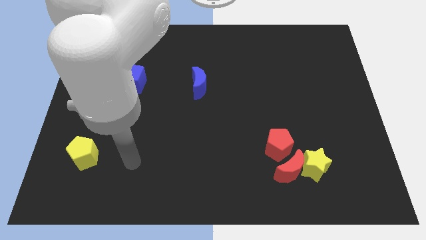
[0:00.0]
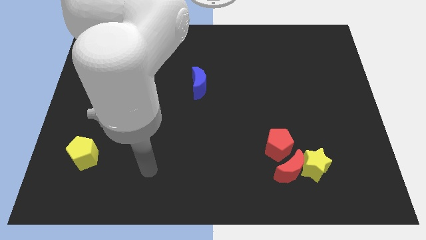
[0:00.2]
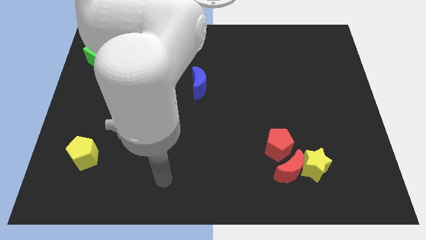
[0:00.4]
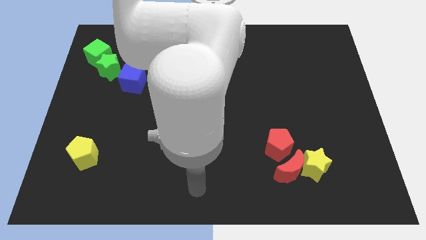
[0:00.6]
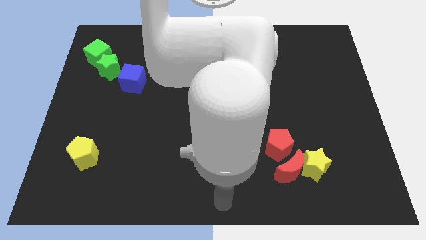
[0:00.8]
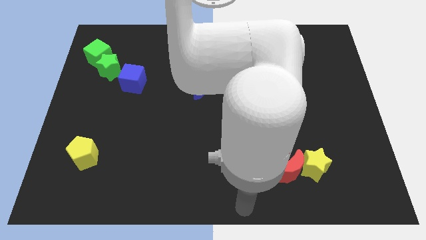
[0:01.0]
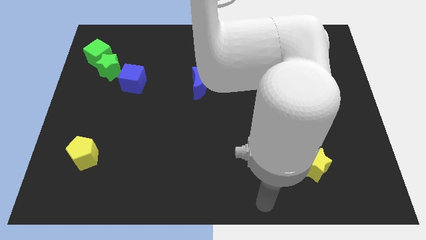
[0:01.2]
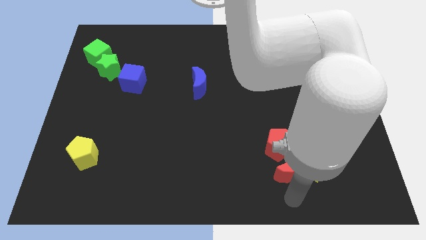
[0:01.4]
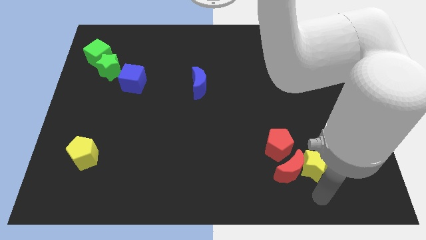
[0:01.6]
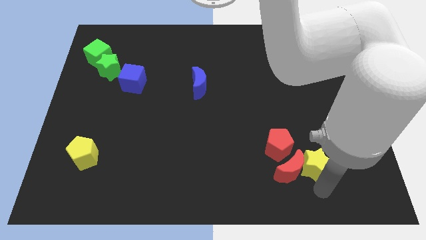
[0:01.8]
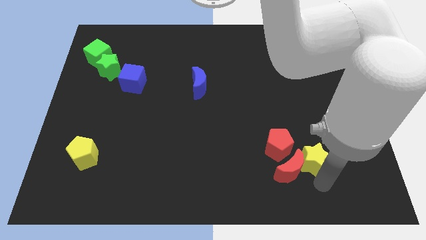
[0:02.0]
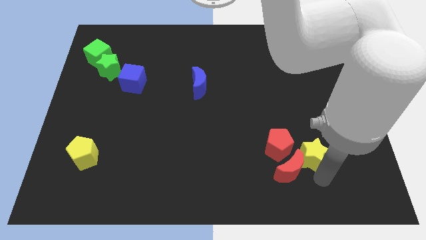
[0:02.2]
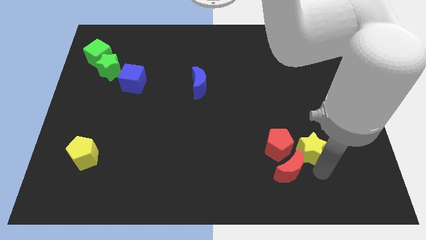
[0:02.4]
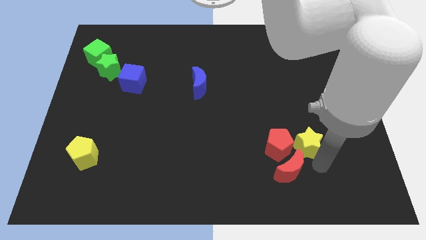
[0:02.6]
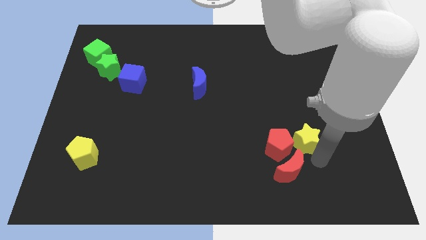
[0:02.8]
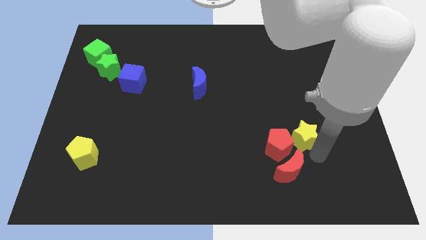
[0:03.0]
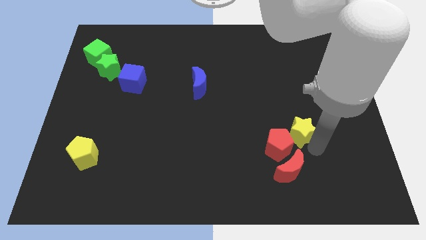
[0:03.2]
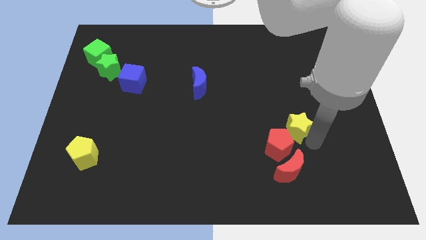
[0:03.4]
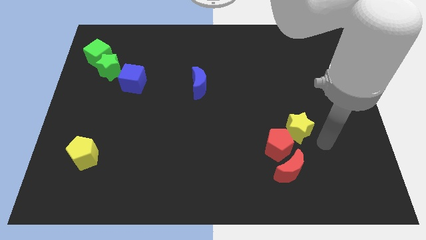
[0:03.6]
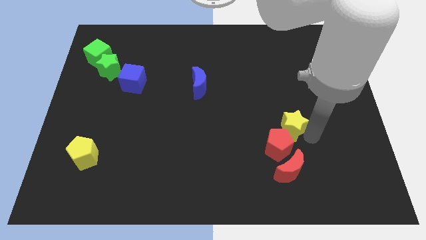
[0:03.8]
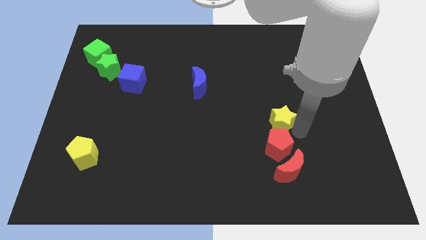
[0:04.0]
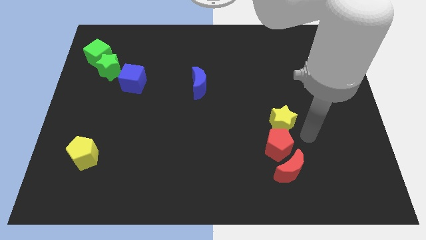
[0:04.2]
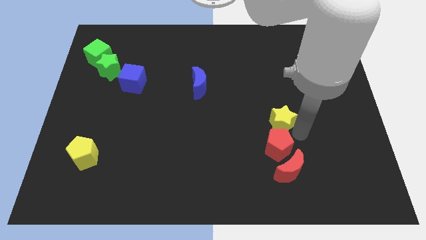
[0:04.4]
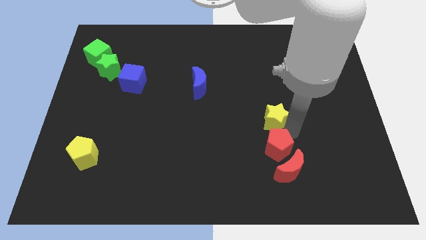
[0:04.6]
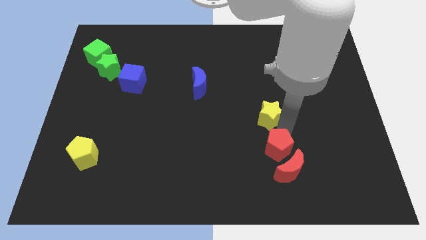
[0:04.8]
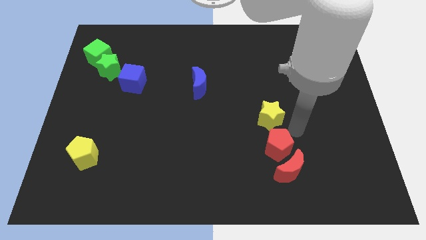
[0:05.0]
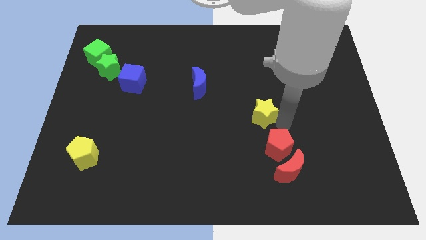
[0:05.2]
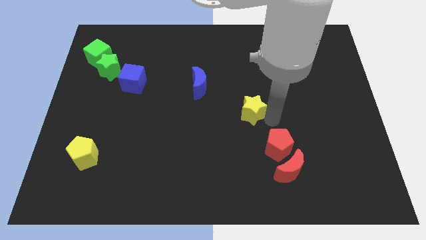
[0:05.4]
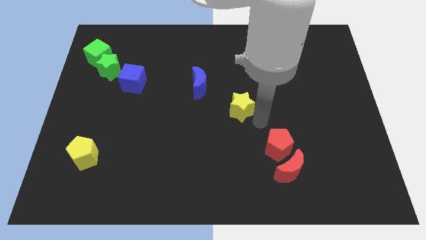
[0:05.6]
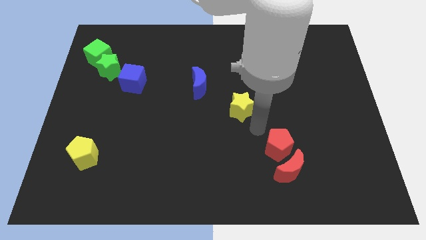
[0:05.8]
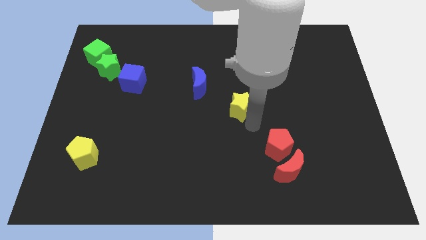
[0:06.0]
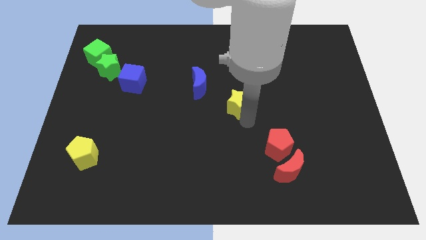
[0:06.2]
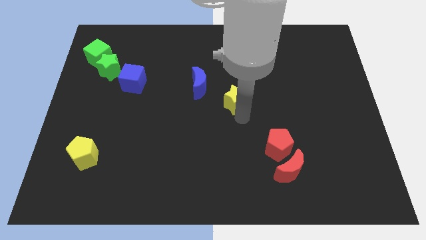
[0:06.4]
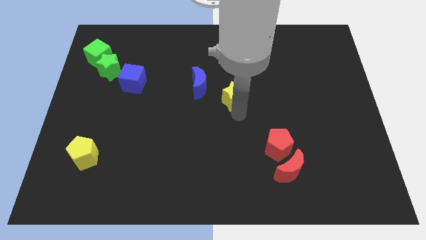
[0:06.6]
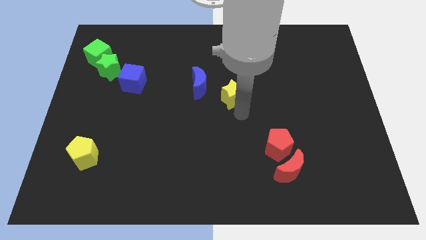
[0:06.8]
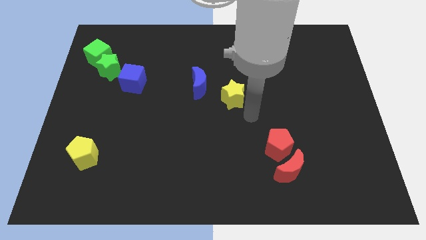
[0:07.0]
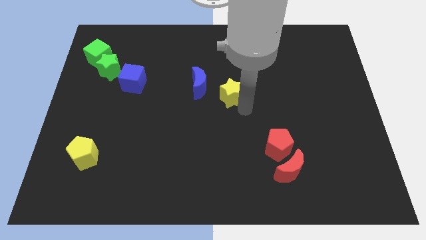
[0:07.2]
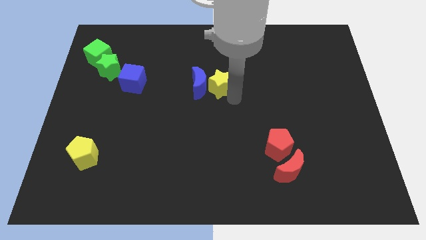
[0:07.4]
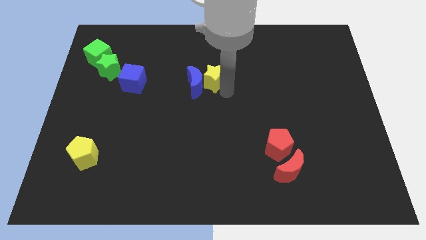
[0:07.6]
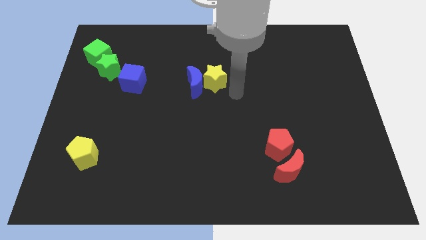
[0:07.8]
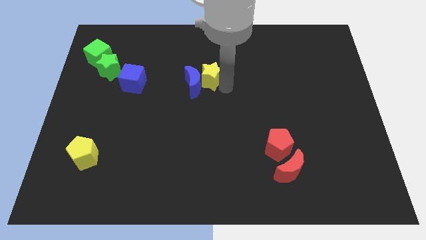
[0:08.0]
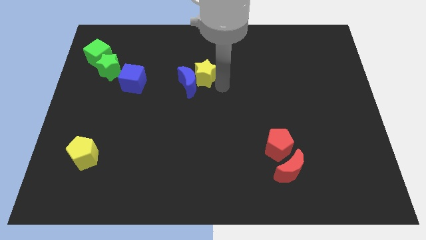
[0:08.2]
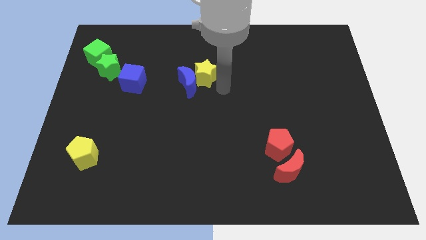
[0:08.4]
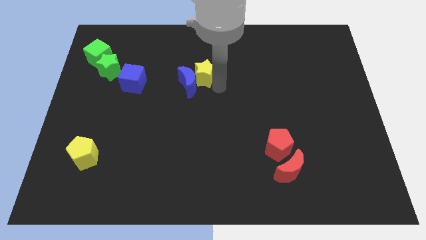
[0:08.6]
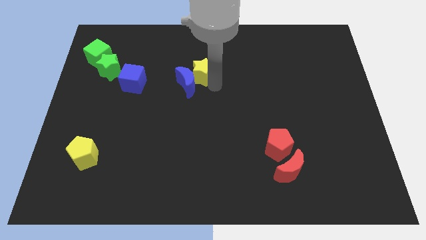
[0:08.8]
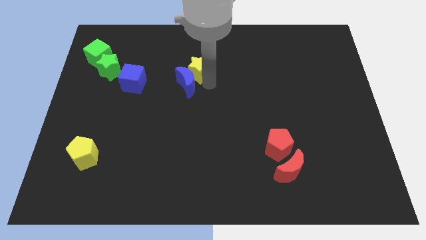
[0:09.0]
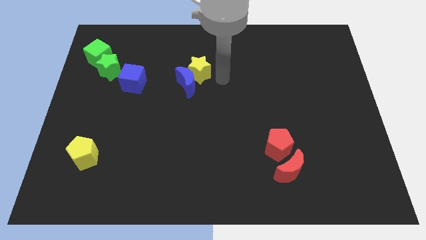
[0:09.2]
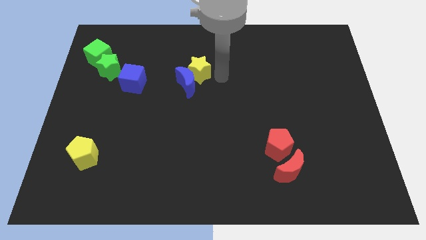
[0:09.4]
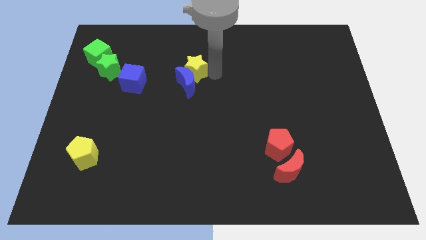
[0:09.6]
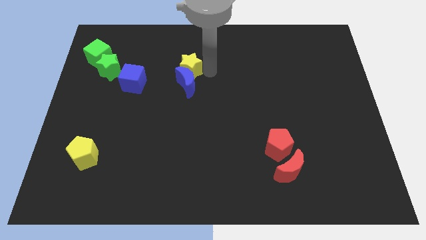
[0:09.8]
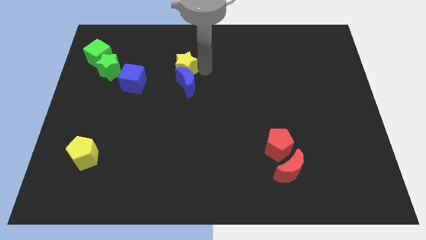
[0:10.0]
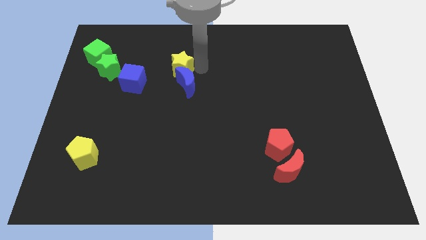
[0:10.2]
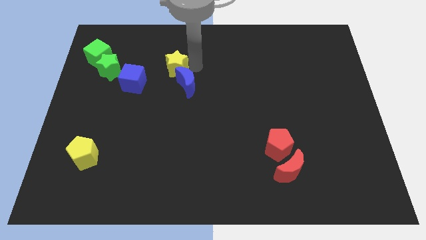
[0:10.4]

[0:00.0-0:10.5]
move the yellow star to the top right of the blue cube

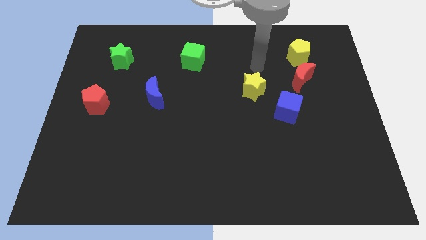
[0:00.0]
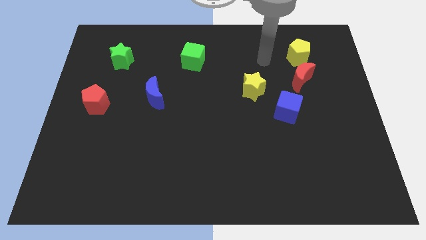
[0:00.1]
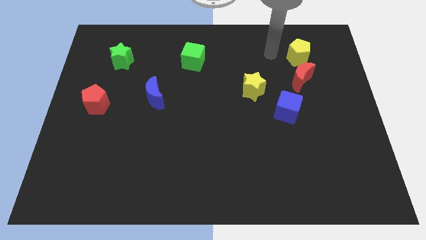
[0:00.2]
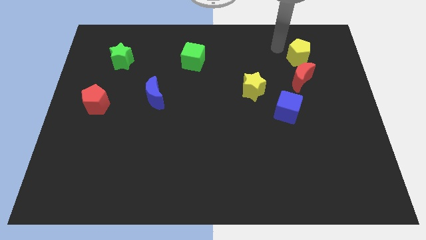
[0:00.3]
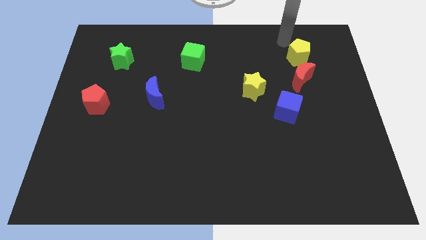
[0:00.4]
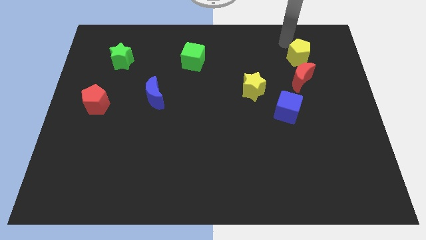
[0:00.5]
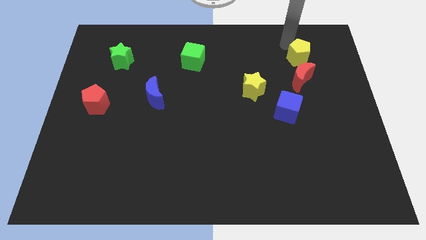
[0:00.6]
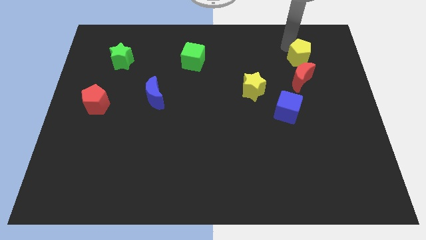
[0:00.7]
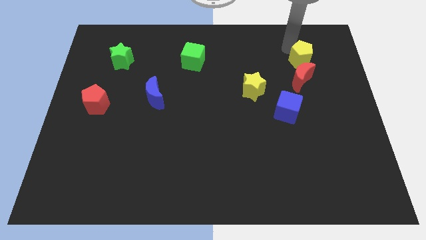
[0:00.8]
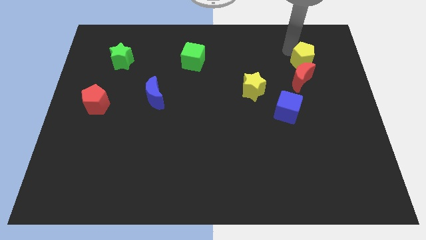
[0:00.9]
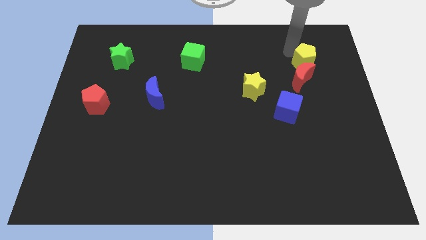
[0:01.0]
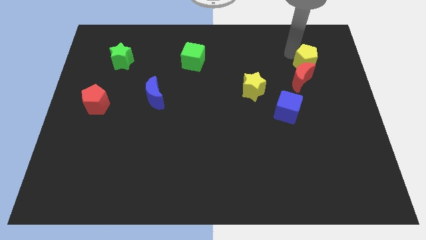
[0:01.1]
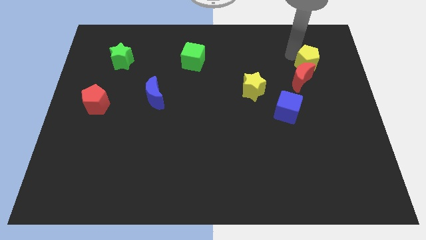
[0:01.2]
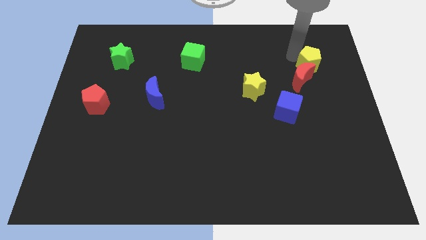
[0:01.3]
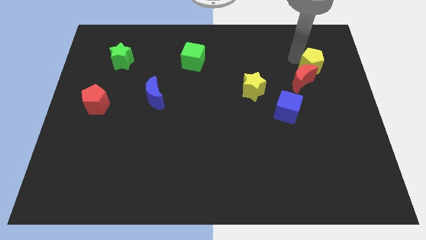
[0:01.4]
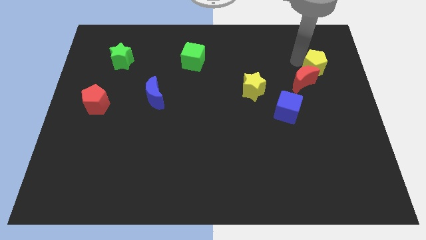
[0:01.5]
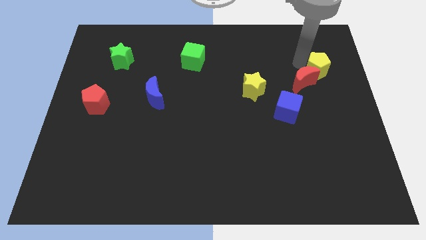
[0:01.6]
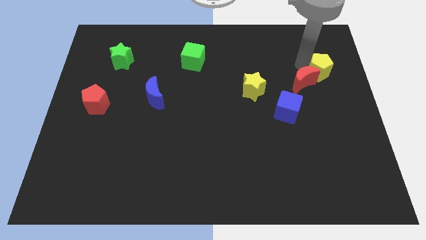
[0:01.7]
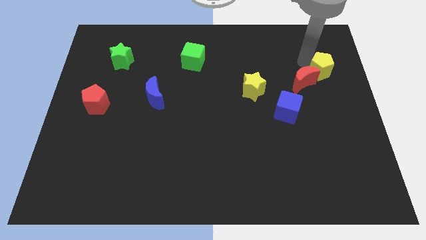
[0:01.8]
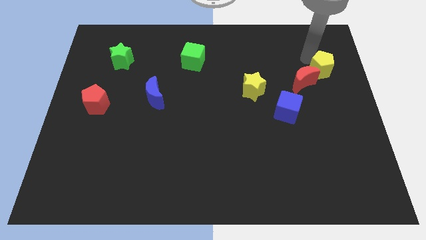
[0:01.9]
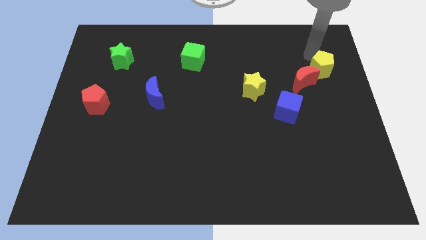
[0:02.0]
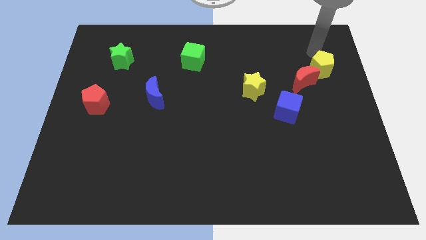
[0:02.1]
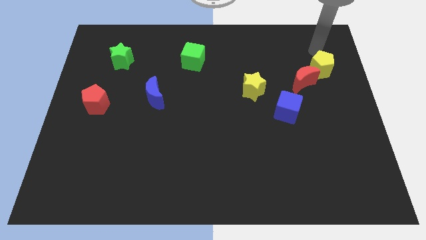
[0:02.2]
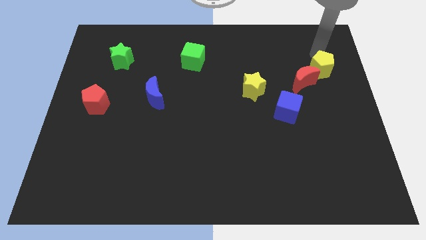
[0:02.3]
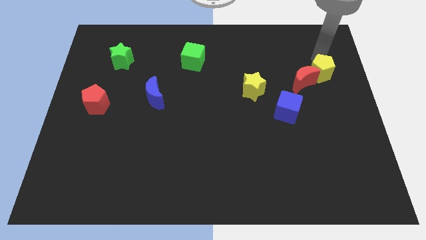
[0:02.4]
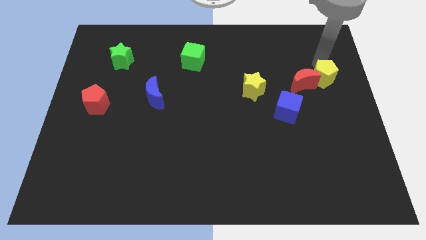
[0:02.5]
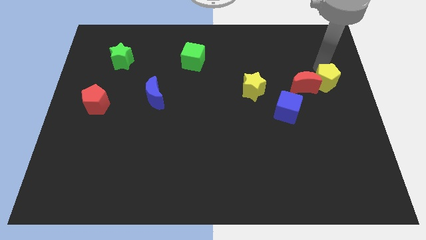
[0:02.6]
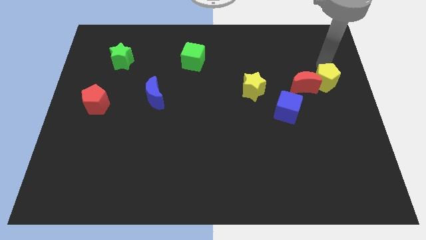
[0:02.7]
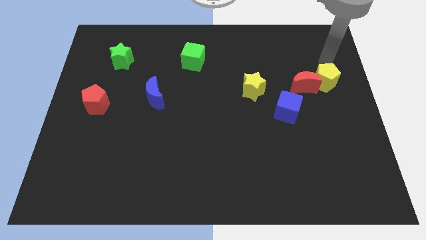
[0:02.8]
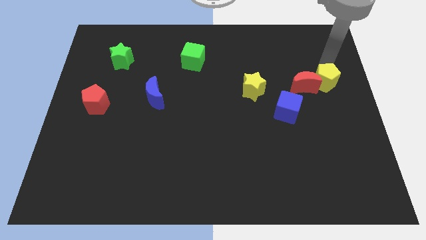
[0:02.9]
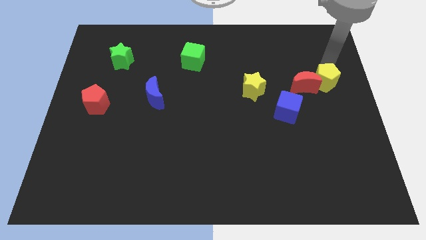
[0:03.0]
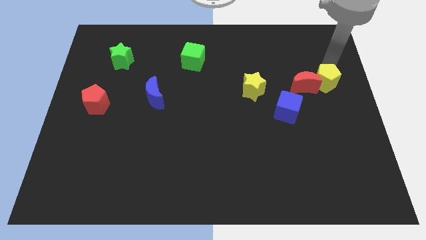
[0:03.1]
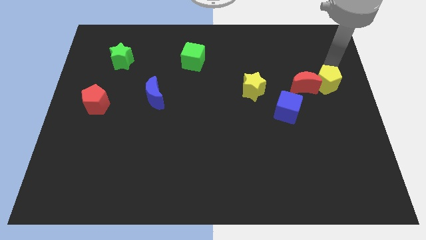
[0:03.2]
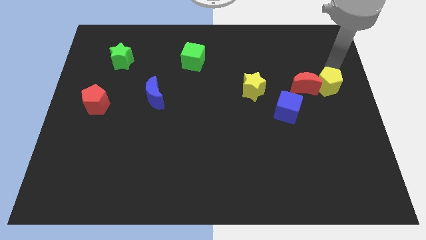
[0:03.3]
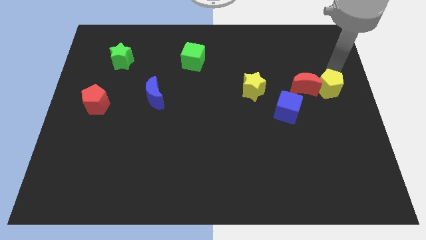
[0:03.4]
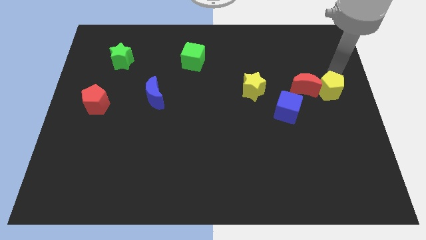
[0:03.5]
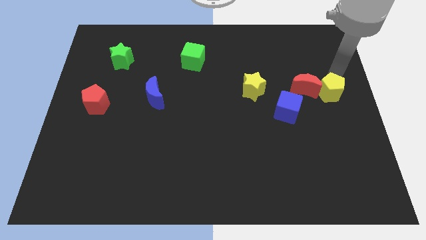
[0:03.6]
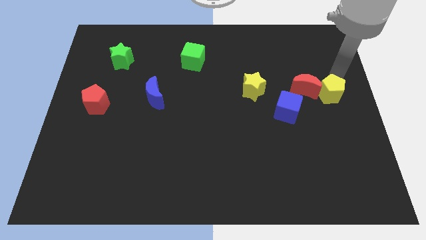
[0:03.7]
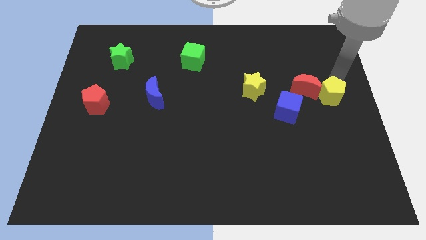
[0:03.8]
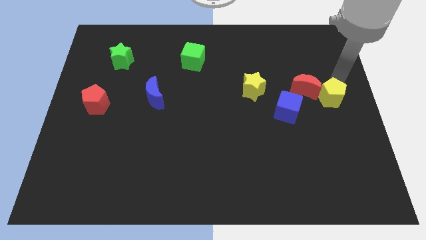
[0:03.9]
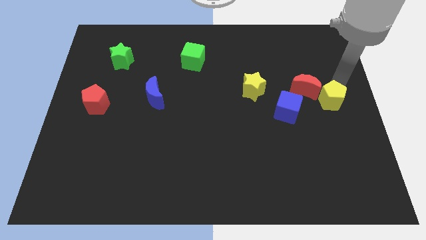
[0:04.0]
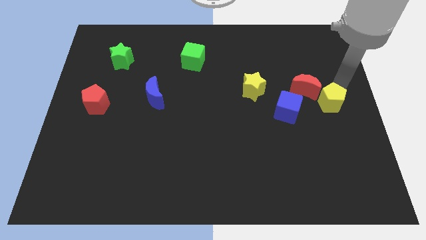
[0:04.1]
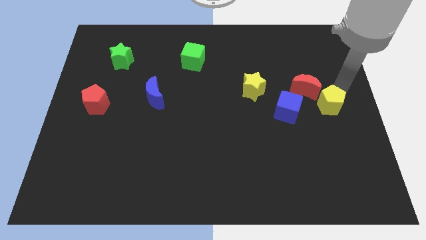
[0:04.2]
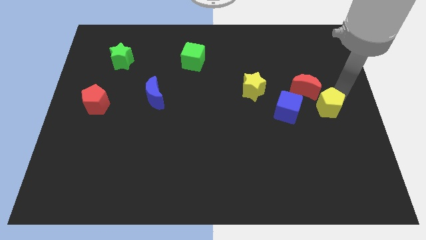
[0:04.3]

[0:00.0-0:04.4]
push the yellow pentagon to the bottom of the red moon
